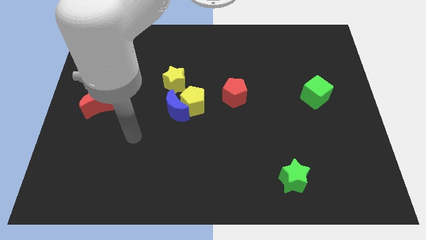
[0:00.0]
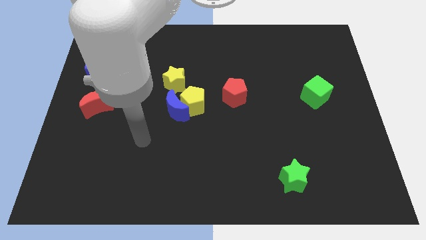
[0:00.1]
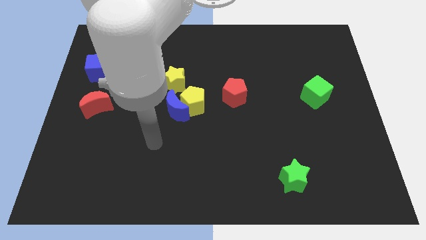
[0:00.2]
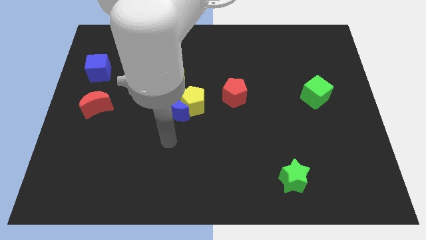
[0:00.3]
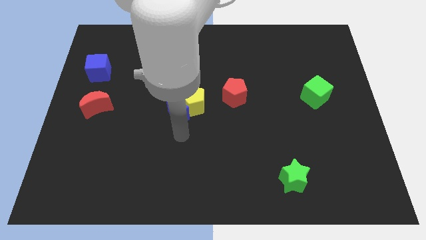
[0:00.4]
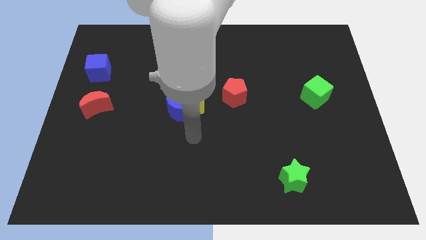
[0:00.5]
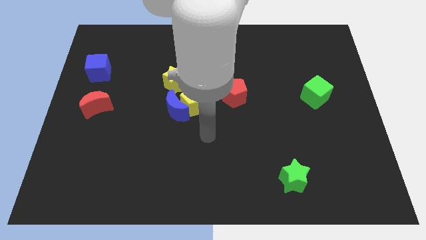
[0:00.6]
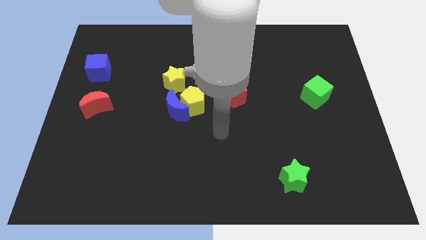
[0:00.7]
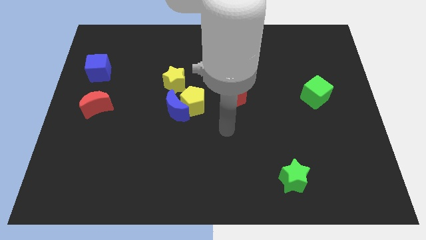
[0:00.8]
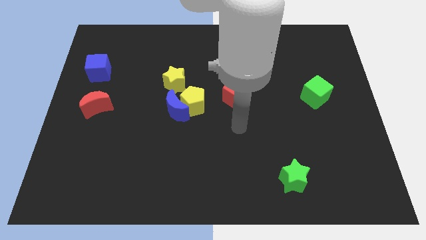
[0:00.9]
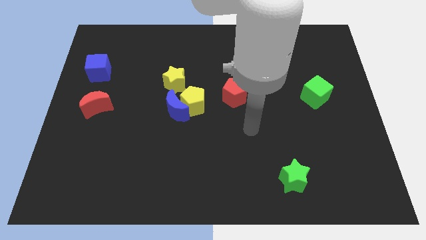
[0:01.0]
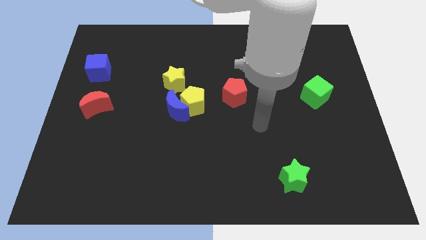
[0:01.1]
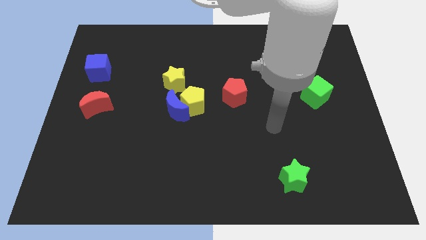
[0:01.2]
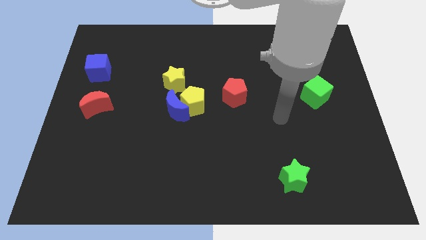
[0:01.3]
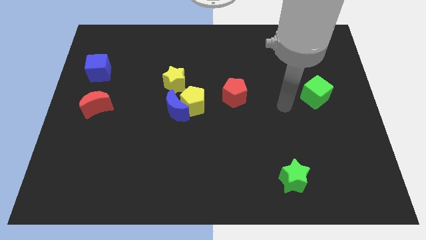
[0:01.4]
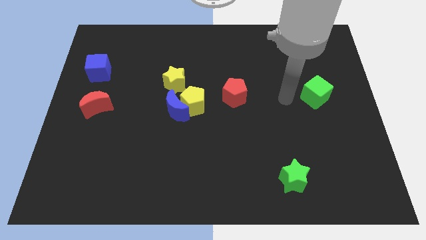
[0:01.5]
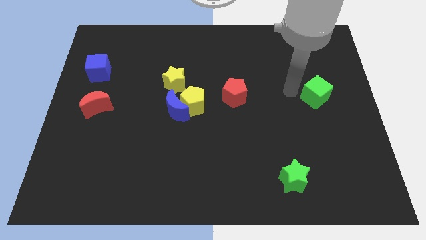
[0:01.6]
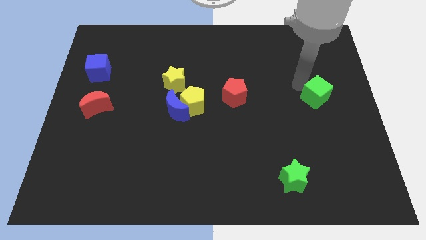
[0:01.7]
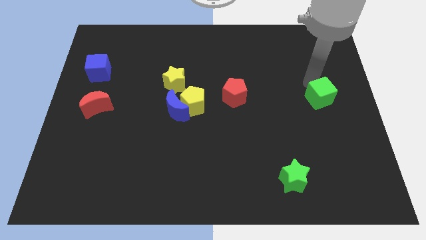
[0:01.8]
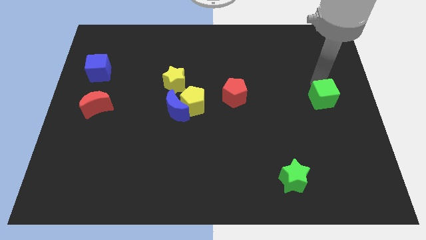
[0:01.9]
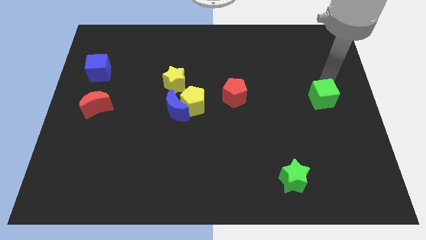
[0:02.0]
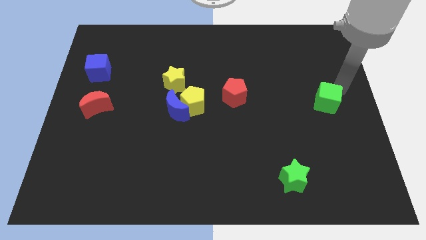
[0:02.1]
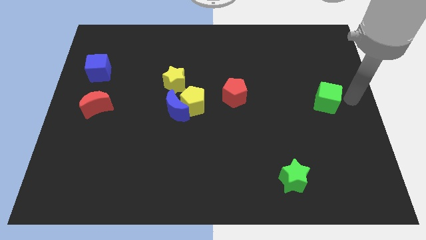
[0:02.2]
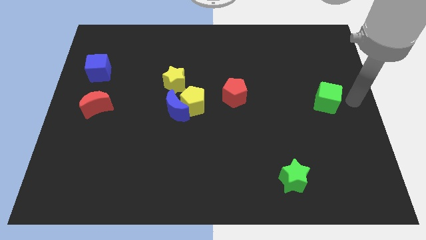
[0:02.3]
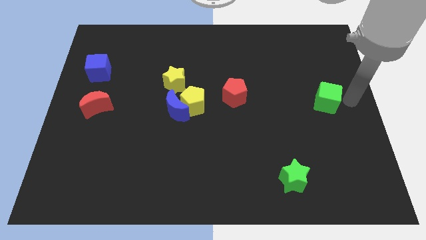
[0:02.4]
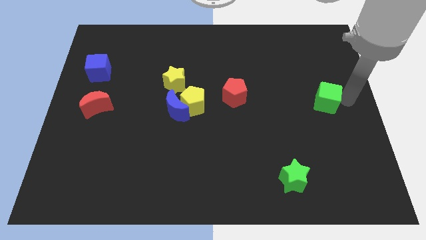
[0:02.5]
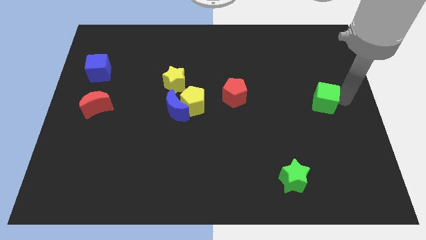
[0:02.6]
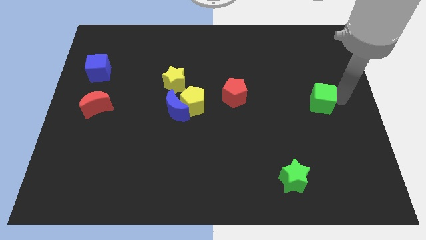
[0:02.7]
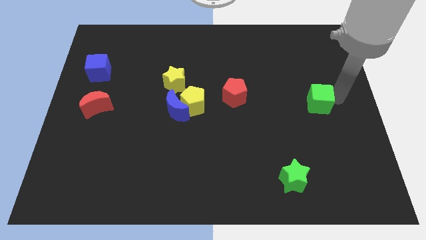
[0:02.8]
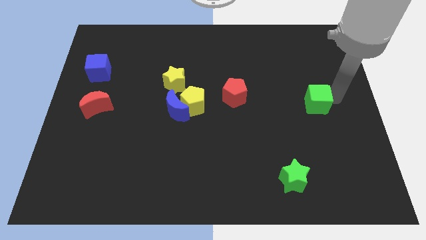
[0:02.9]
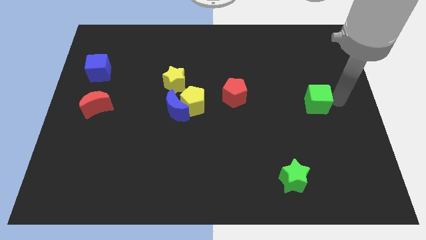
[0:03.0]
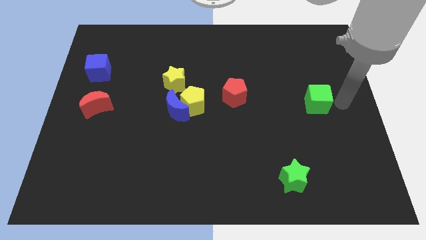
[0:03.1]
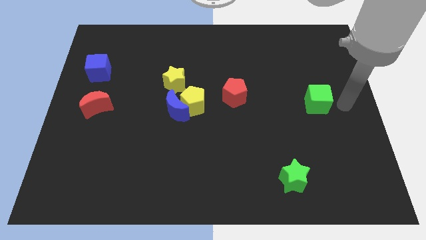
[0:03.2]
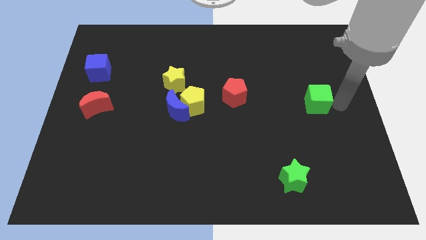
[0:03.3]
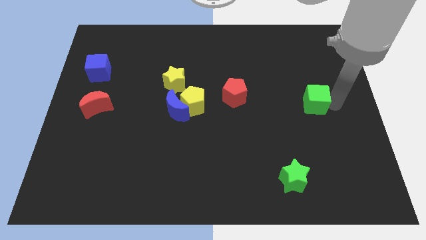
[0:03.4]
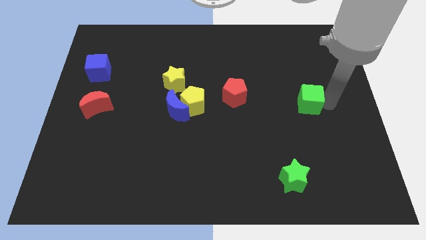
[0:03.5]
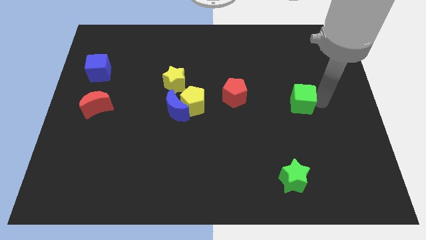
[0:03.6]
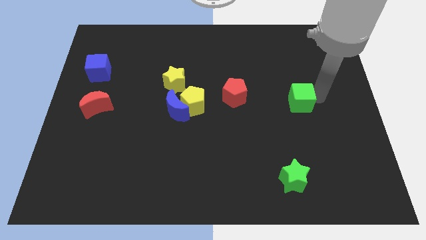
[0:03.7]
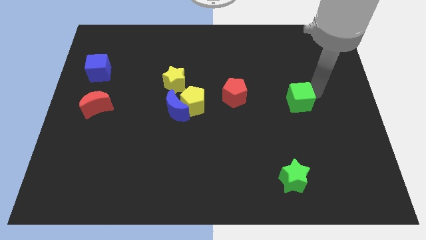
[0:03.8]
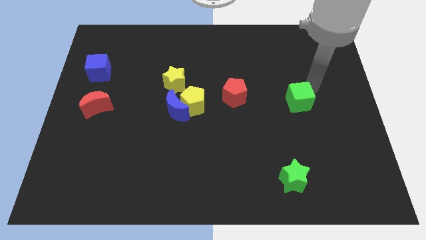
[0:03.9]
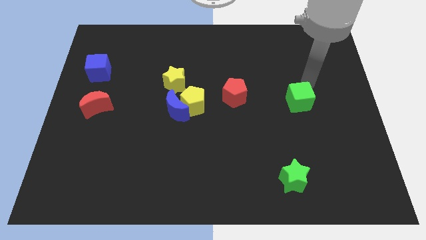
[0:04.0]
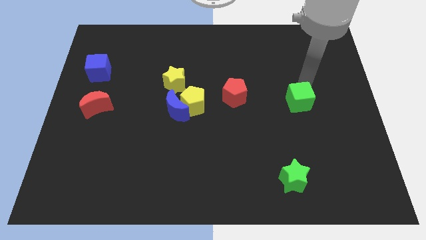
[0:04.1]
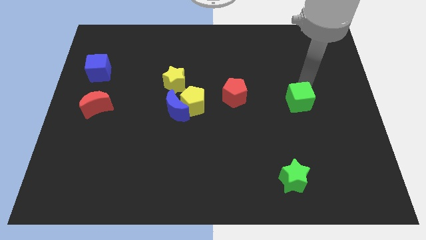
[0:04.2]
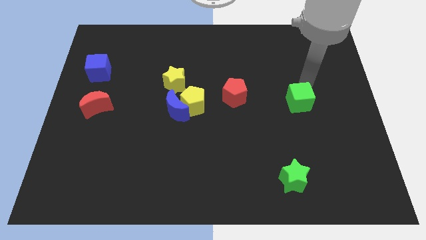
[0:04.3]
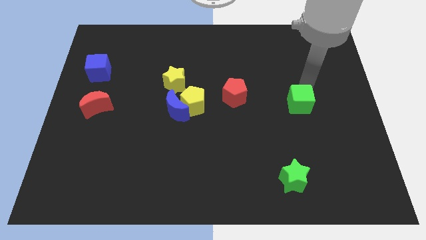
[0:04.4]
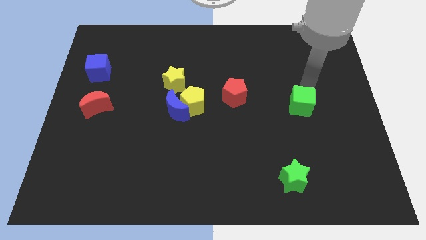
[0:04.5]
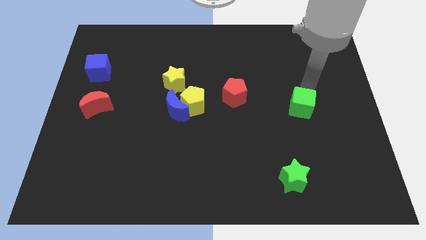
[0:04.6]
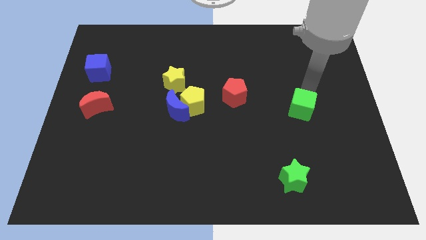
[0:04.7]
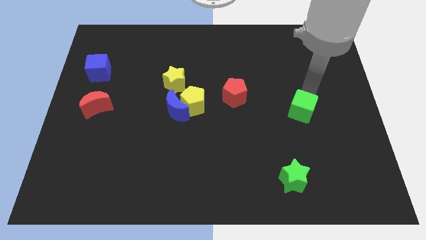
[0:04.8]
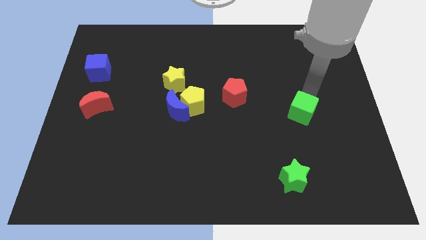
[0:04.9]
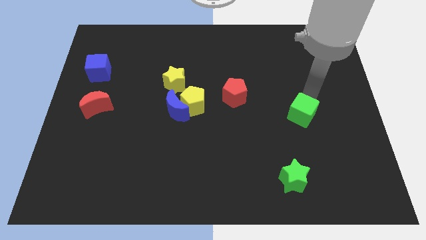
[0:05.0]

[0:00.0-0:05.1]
push the green cube somewhat down and left diagonally

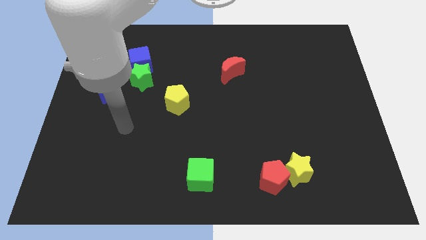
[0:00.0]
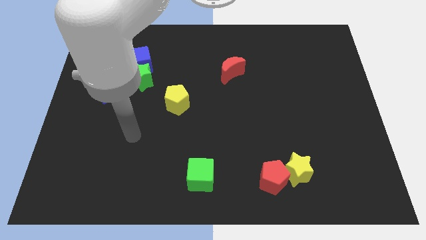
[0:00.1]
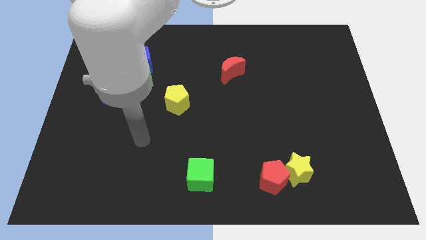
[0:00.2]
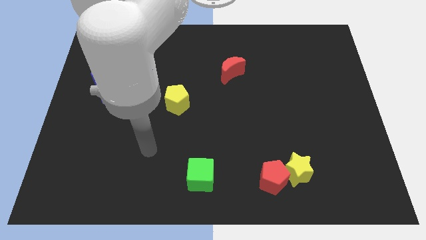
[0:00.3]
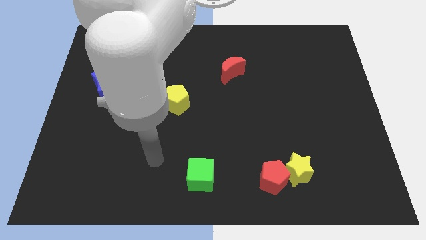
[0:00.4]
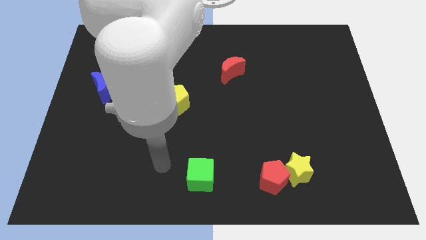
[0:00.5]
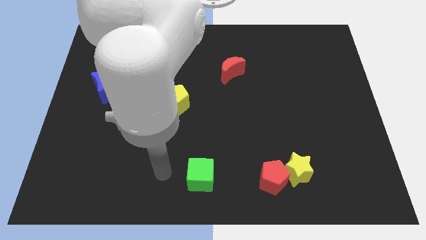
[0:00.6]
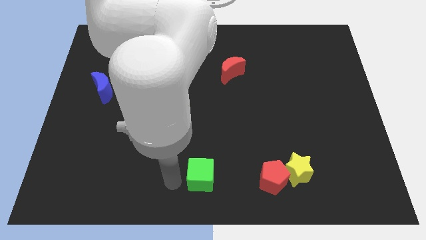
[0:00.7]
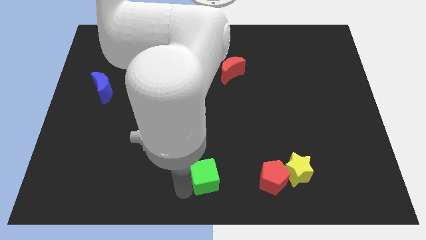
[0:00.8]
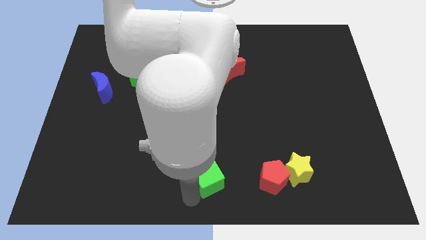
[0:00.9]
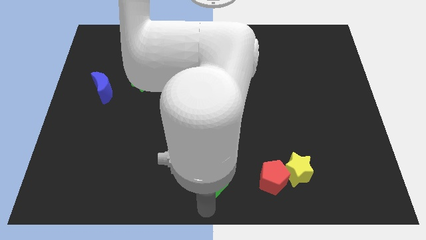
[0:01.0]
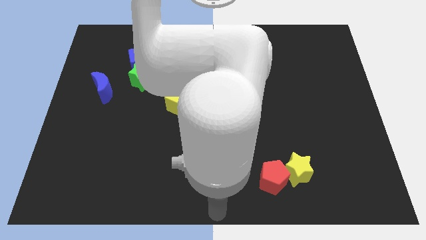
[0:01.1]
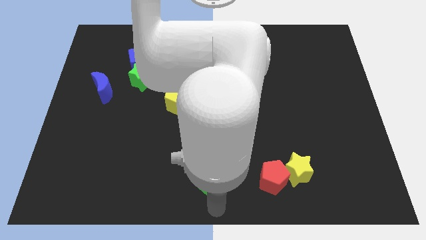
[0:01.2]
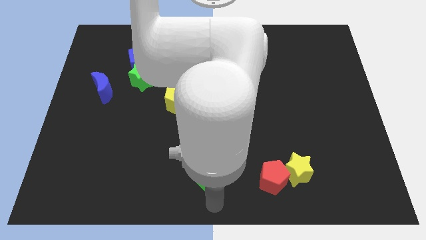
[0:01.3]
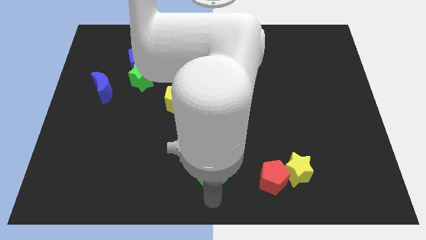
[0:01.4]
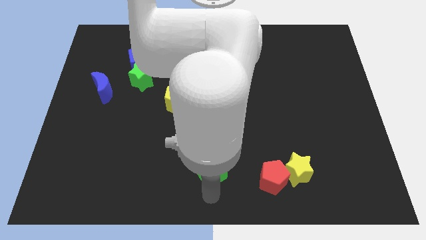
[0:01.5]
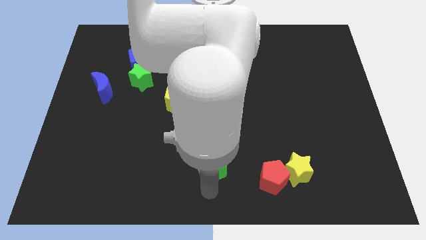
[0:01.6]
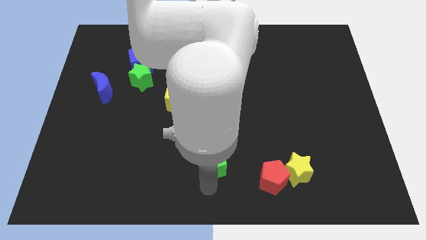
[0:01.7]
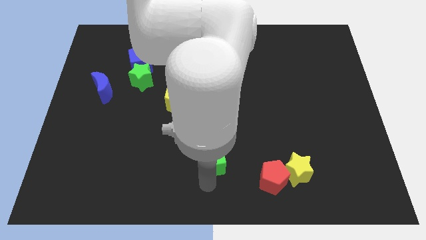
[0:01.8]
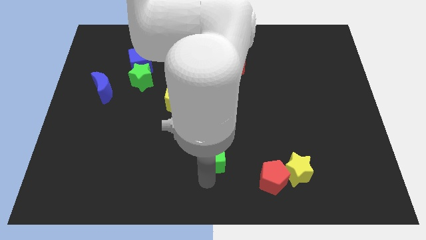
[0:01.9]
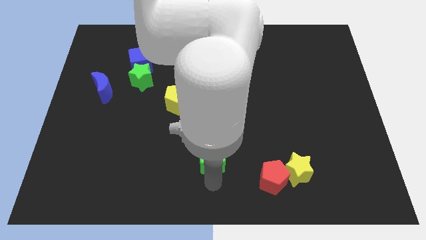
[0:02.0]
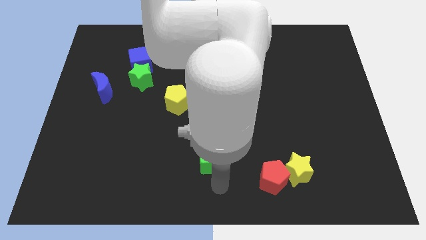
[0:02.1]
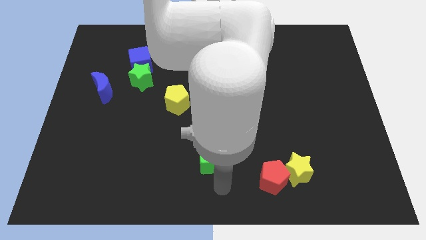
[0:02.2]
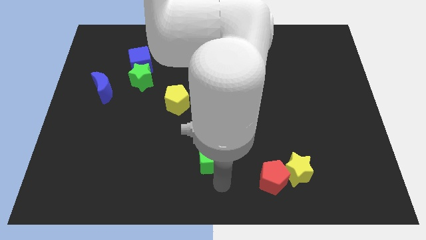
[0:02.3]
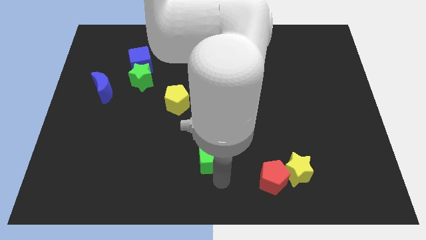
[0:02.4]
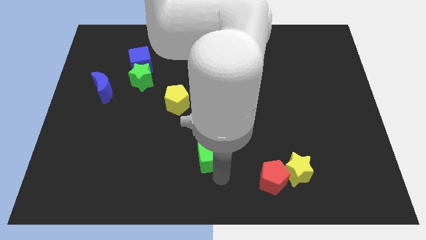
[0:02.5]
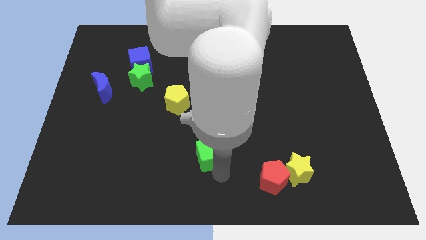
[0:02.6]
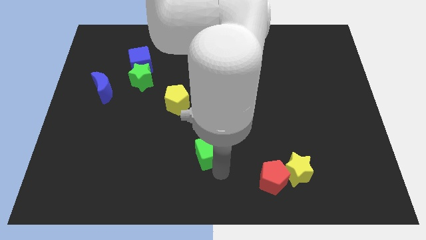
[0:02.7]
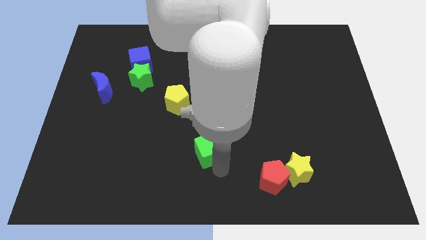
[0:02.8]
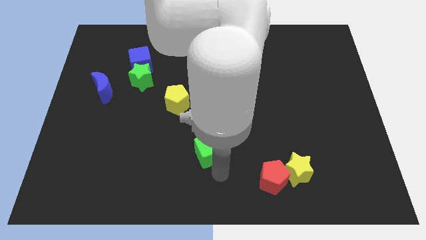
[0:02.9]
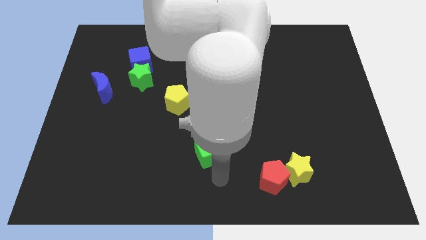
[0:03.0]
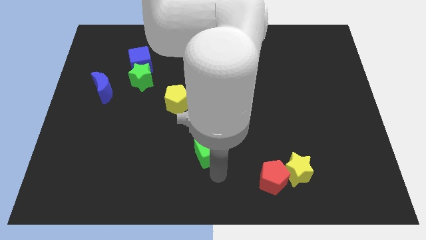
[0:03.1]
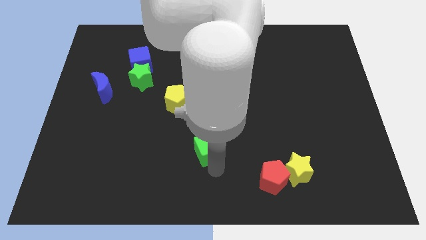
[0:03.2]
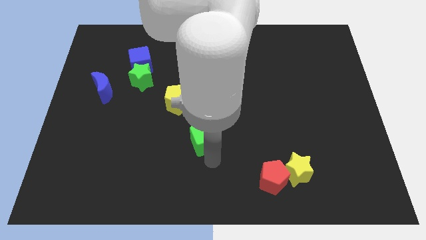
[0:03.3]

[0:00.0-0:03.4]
slightly slide the green cube up
